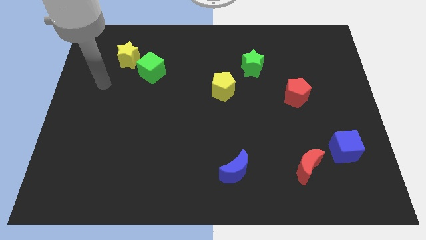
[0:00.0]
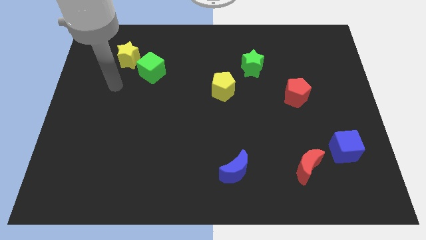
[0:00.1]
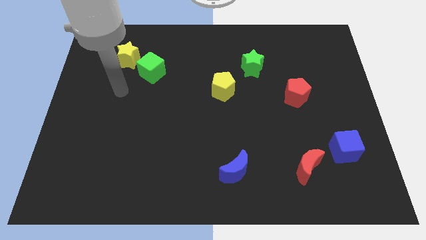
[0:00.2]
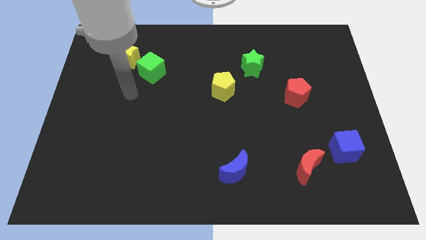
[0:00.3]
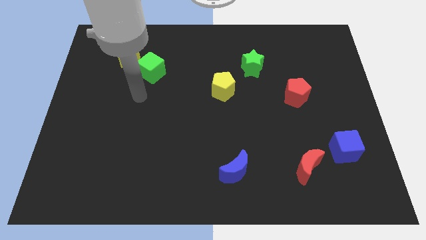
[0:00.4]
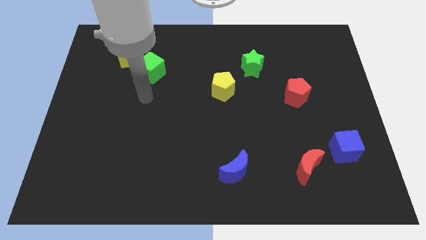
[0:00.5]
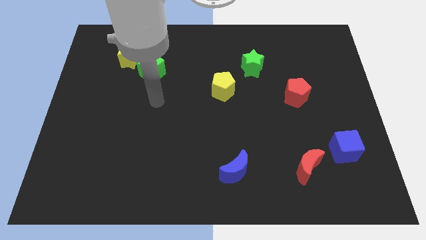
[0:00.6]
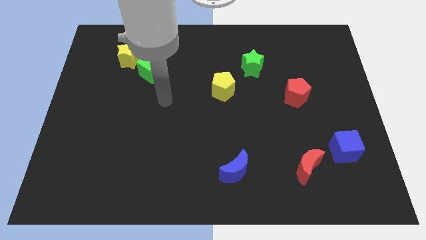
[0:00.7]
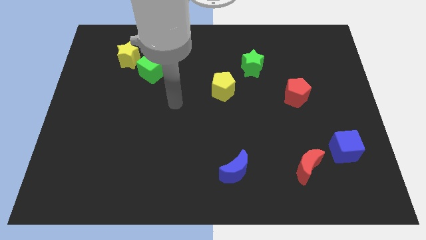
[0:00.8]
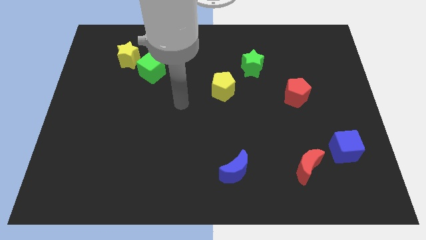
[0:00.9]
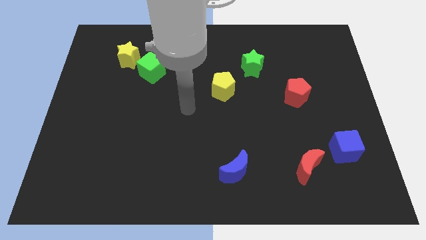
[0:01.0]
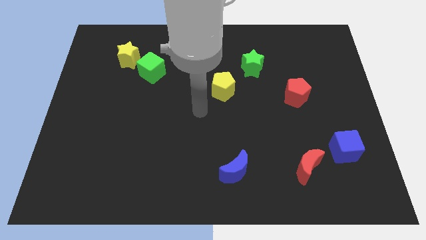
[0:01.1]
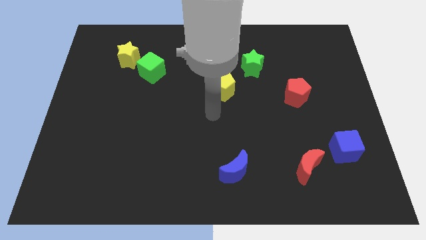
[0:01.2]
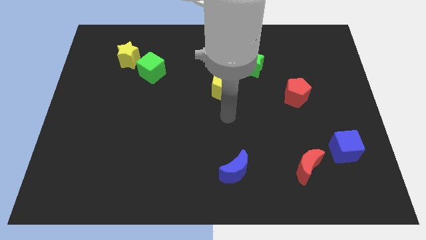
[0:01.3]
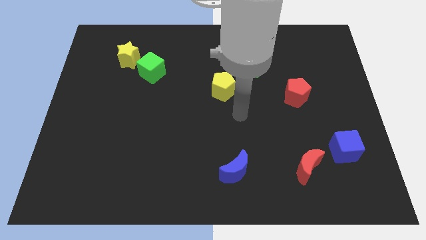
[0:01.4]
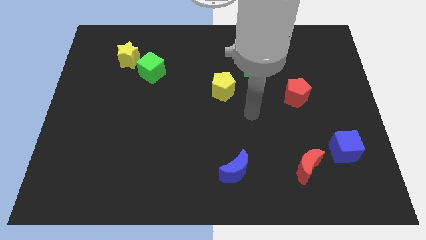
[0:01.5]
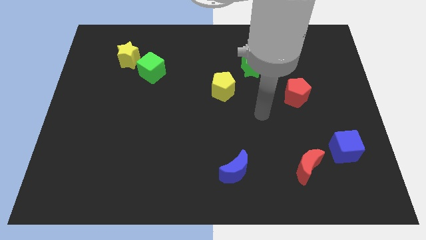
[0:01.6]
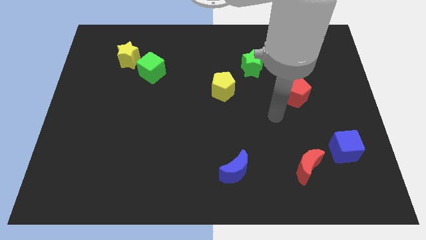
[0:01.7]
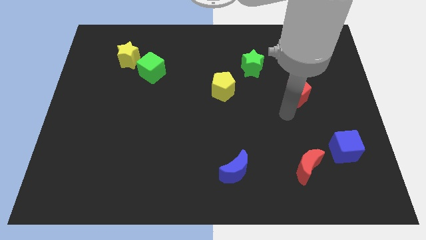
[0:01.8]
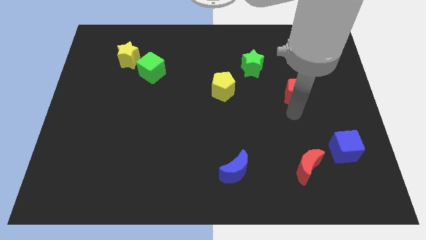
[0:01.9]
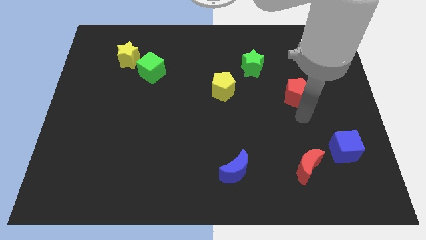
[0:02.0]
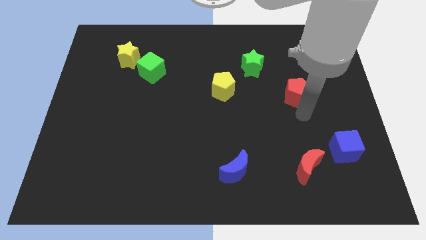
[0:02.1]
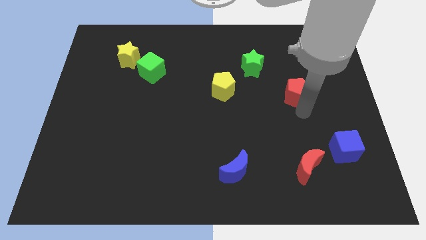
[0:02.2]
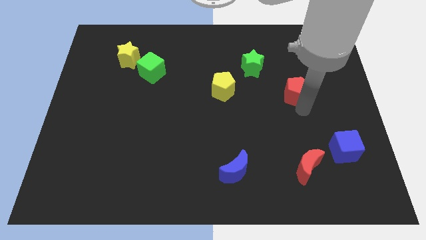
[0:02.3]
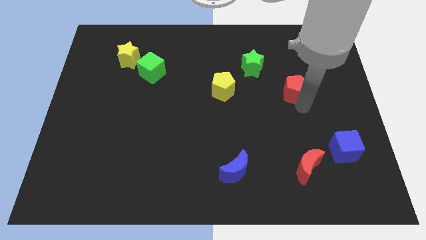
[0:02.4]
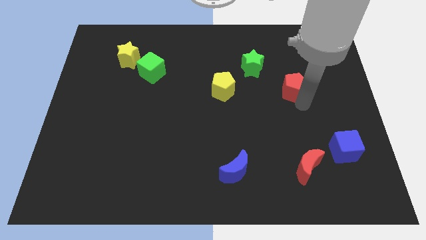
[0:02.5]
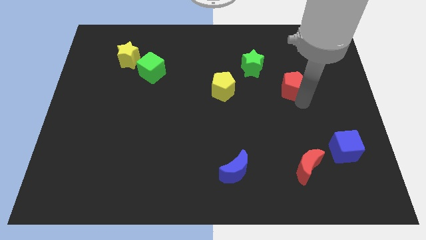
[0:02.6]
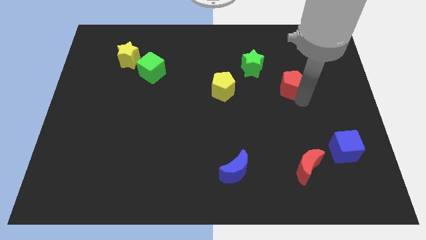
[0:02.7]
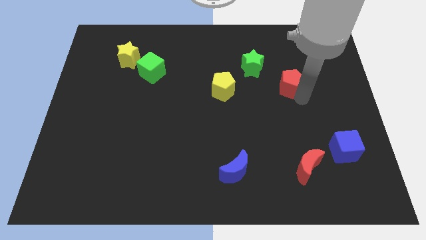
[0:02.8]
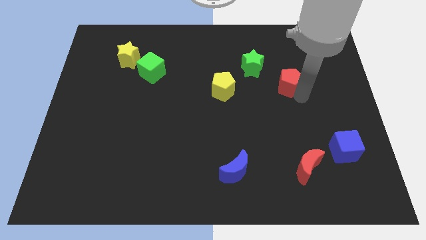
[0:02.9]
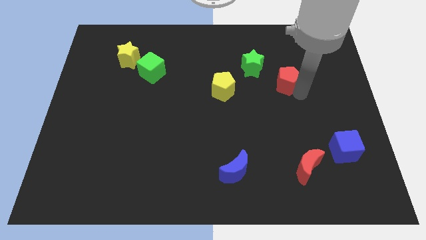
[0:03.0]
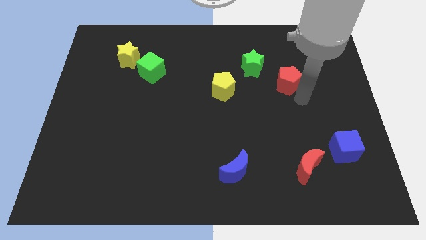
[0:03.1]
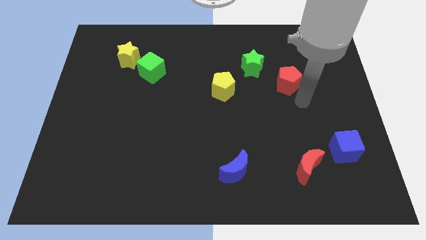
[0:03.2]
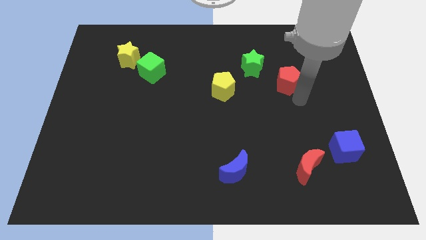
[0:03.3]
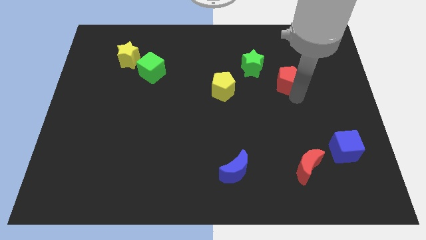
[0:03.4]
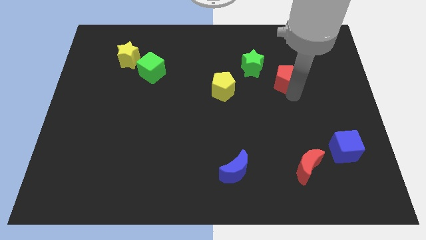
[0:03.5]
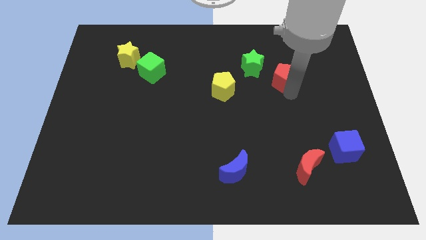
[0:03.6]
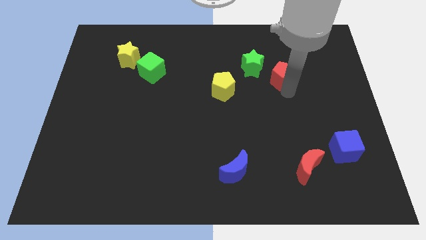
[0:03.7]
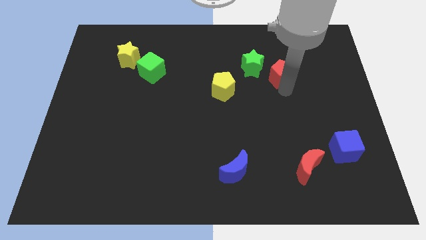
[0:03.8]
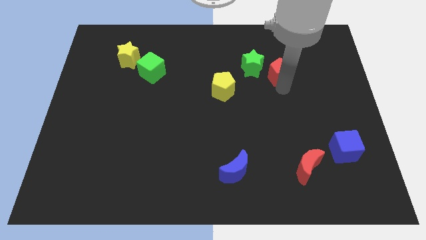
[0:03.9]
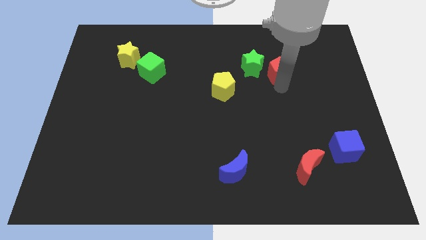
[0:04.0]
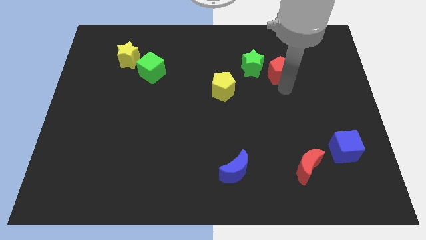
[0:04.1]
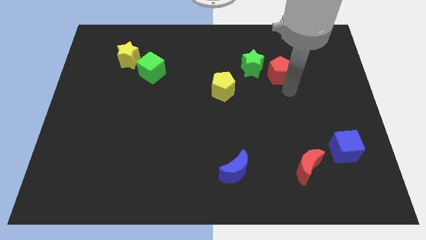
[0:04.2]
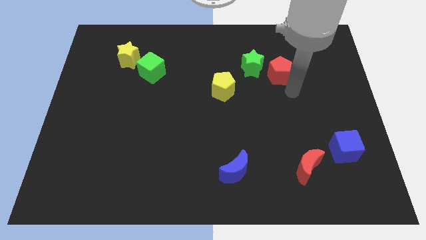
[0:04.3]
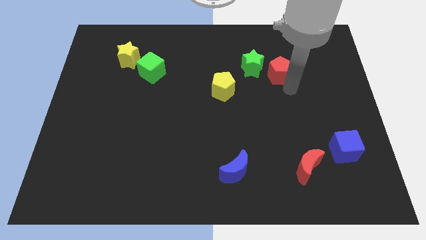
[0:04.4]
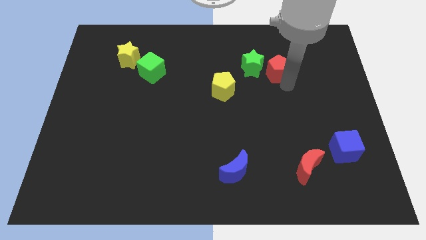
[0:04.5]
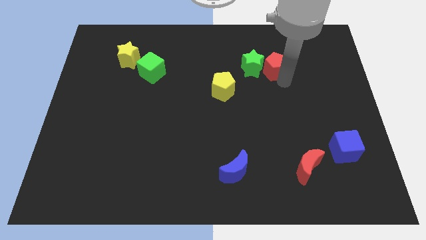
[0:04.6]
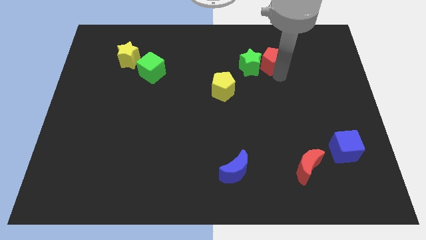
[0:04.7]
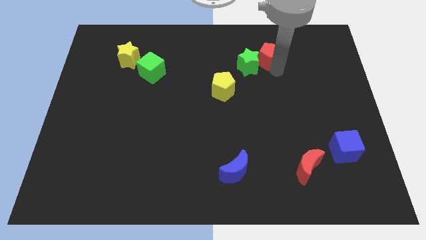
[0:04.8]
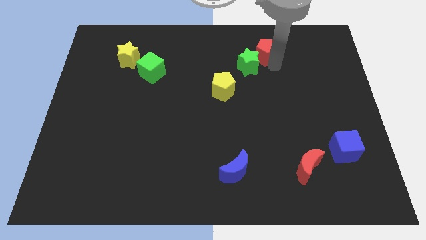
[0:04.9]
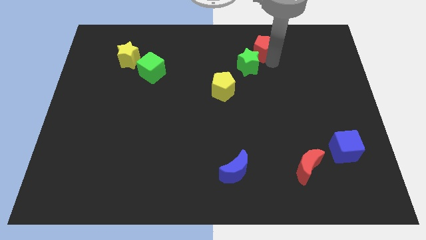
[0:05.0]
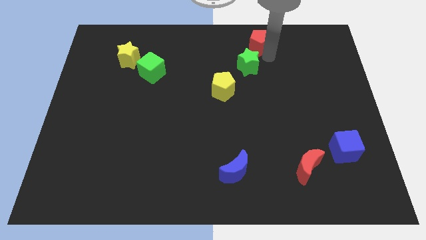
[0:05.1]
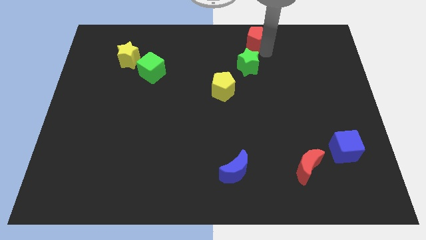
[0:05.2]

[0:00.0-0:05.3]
move the red pentagon to the top side

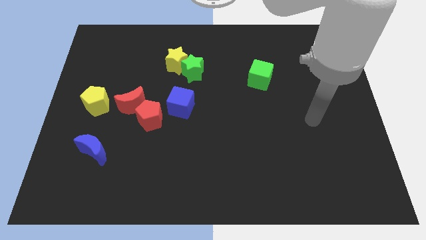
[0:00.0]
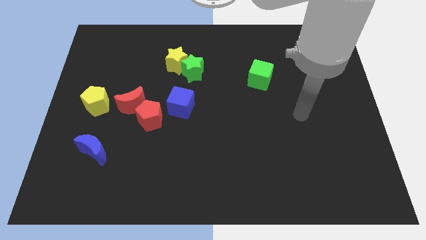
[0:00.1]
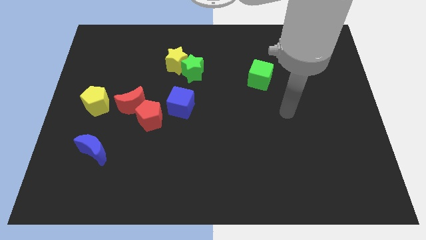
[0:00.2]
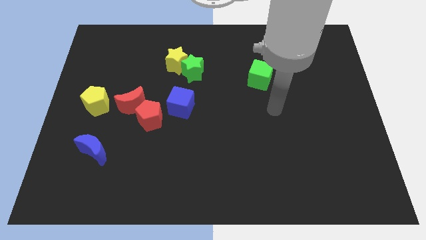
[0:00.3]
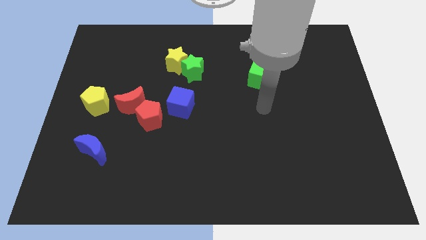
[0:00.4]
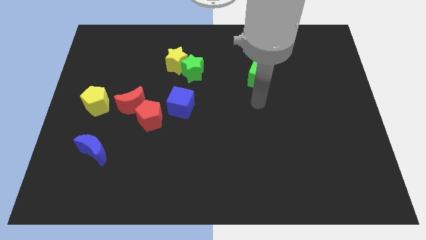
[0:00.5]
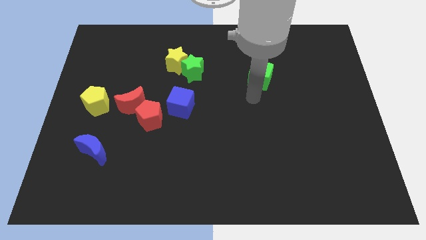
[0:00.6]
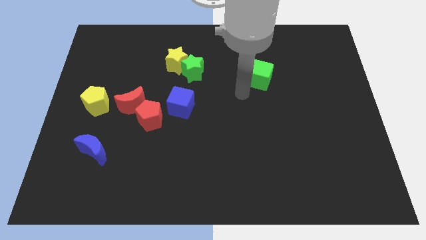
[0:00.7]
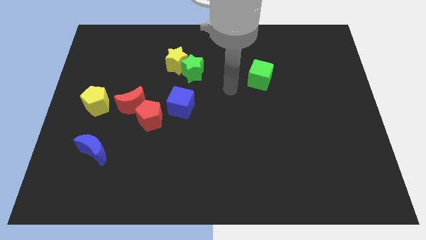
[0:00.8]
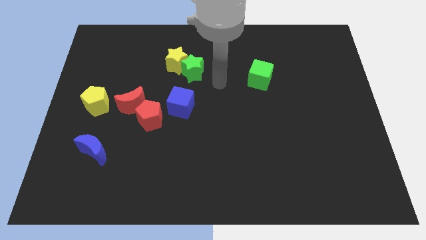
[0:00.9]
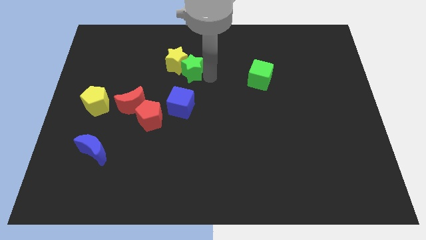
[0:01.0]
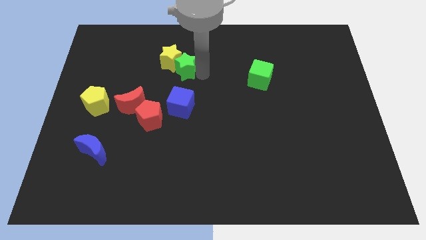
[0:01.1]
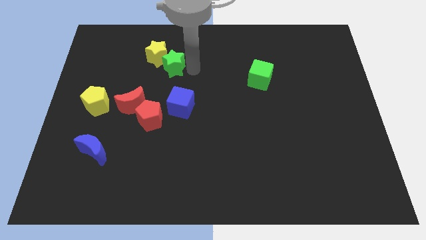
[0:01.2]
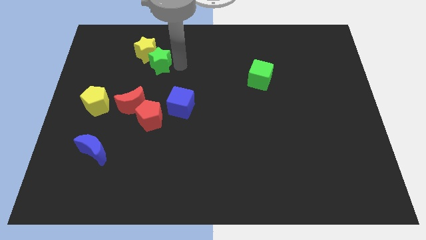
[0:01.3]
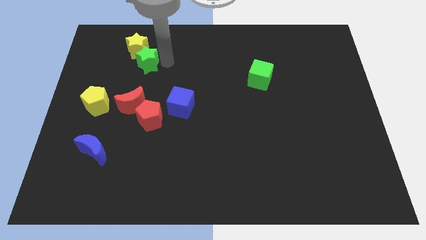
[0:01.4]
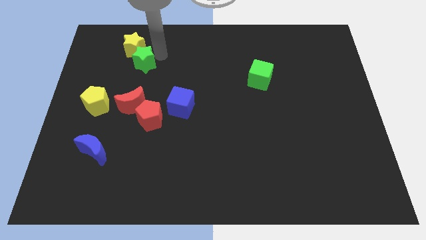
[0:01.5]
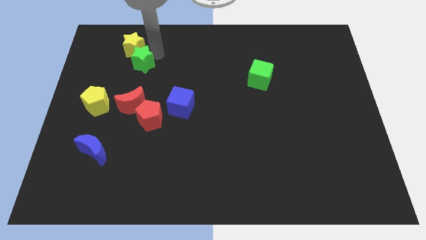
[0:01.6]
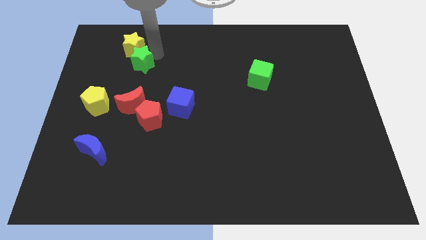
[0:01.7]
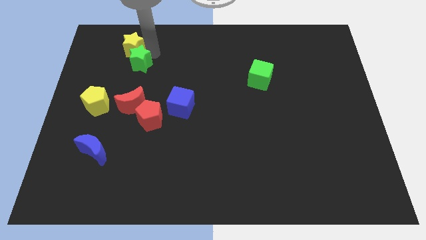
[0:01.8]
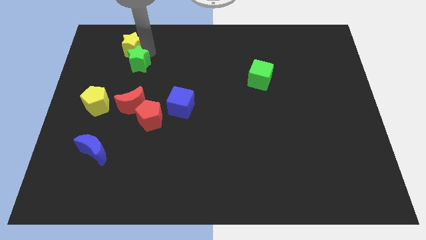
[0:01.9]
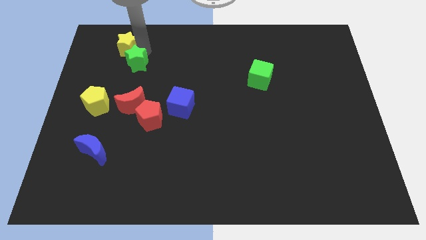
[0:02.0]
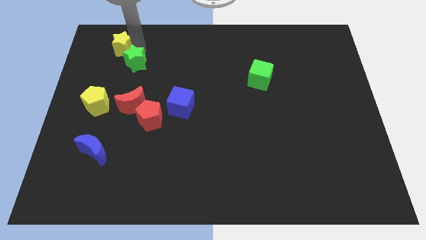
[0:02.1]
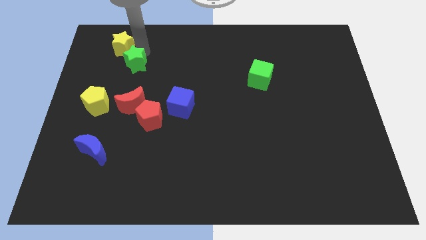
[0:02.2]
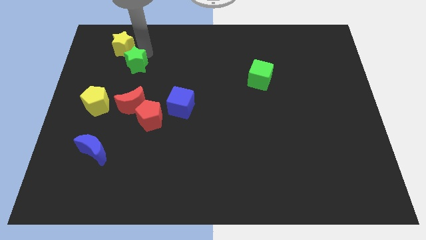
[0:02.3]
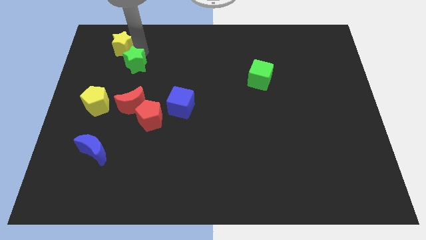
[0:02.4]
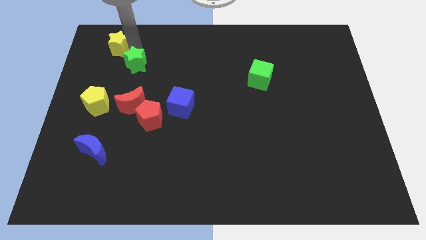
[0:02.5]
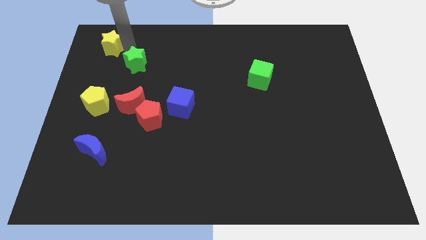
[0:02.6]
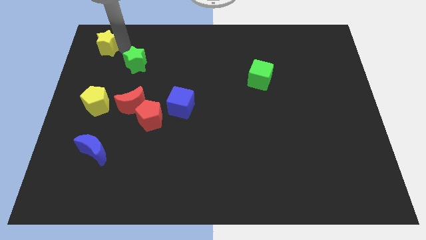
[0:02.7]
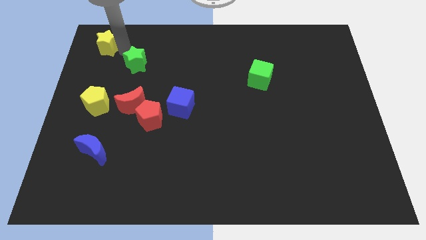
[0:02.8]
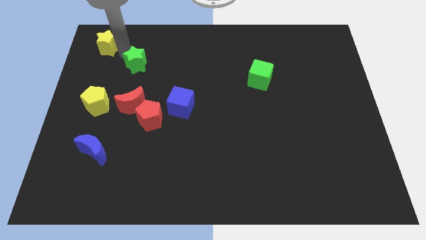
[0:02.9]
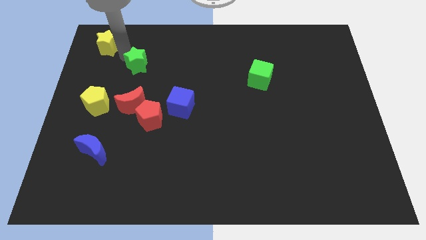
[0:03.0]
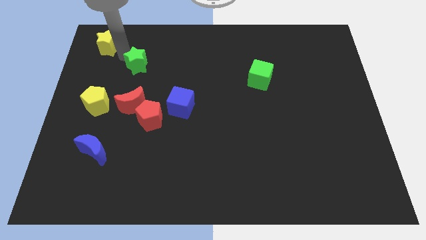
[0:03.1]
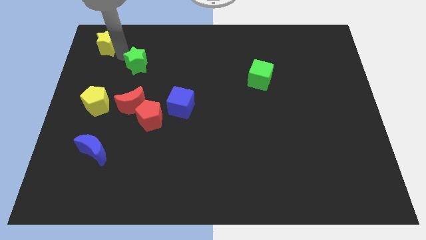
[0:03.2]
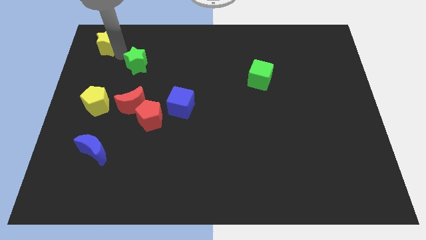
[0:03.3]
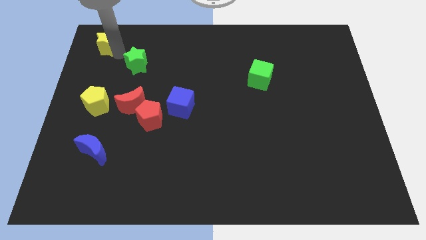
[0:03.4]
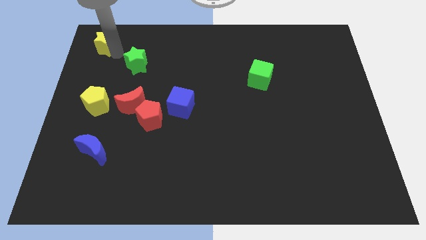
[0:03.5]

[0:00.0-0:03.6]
push the yellow star to the top left
